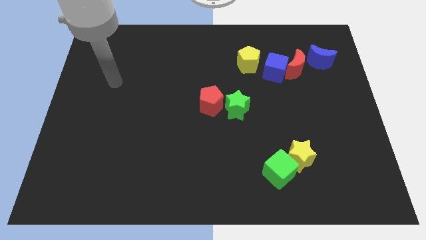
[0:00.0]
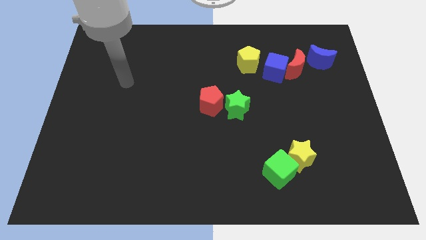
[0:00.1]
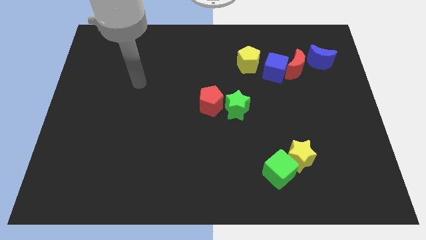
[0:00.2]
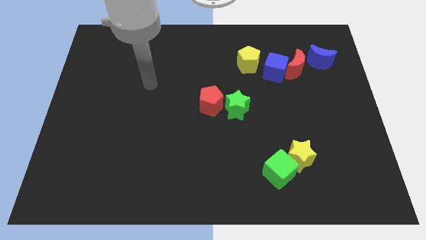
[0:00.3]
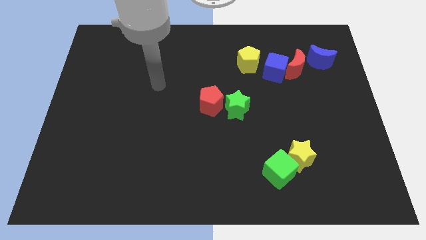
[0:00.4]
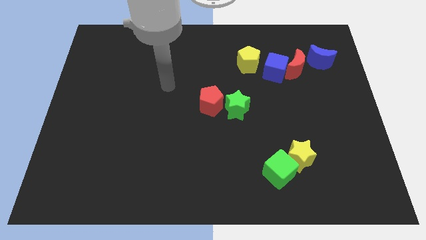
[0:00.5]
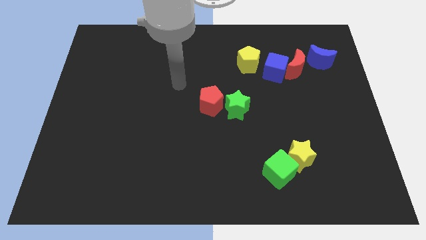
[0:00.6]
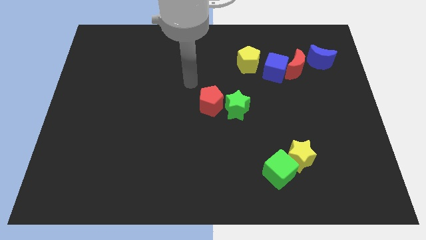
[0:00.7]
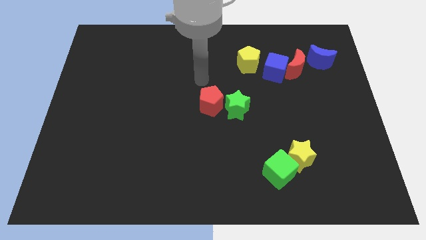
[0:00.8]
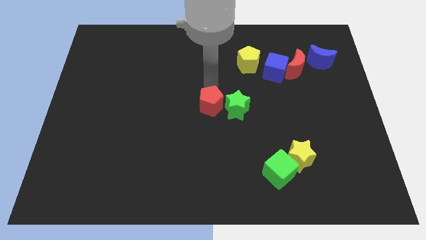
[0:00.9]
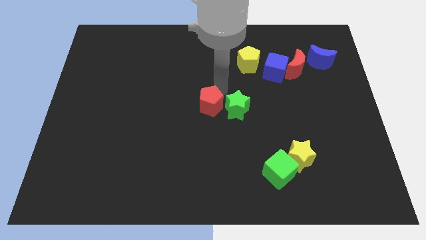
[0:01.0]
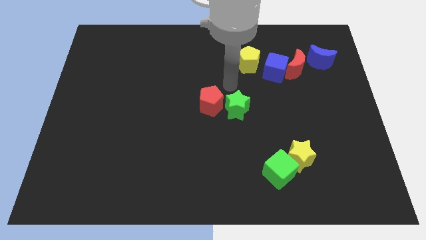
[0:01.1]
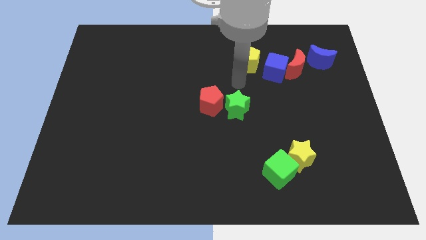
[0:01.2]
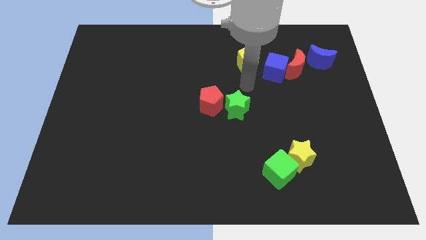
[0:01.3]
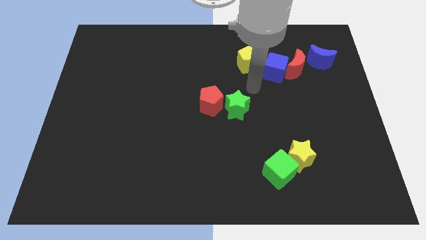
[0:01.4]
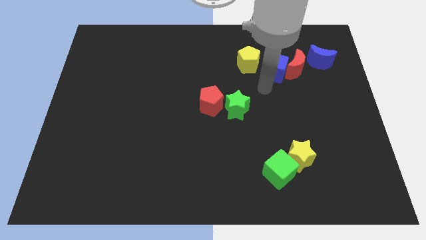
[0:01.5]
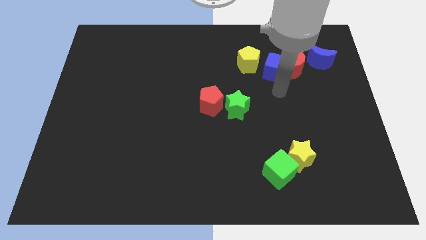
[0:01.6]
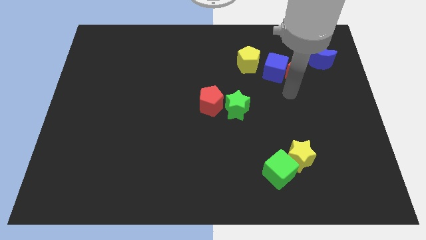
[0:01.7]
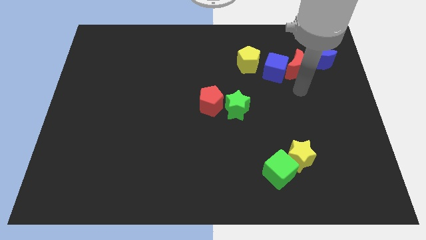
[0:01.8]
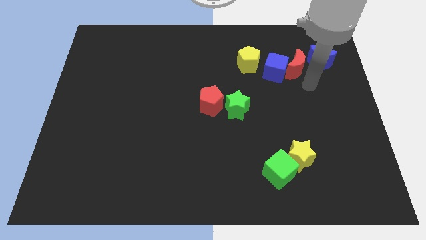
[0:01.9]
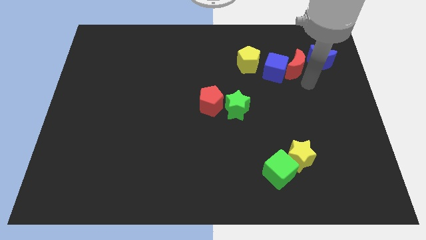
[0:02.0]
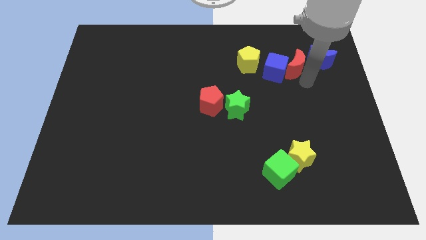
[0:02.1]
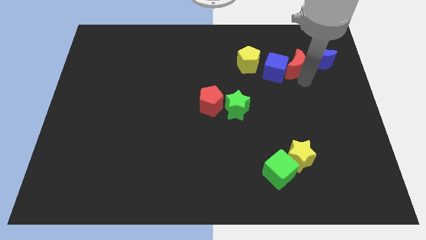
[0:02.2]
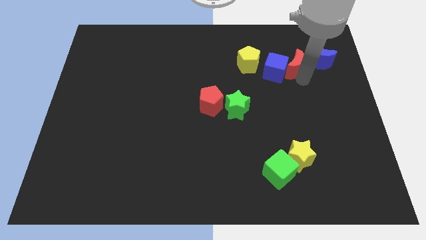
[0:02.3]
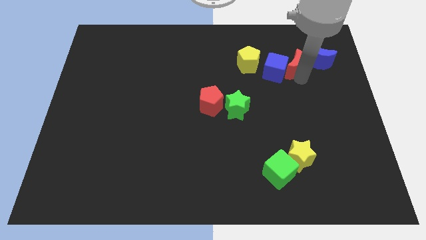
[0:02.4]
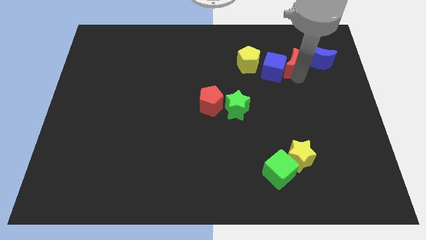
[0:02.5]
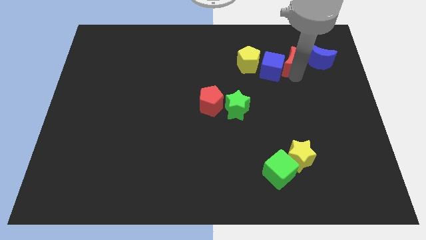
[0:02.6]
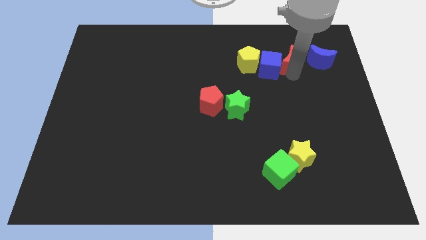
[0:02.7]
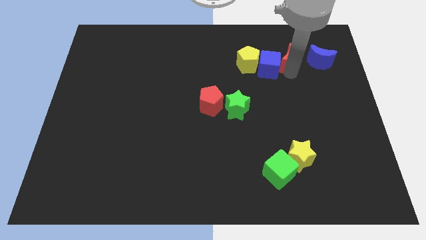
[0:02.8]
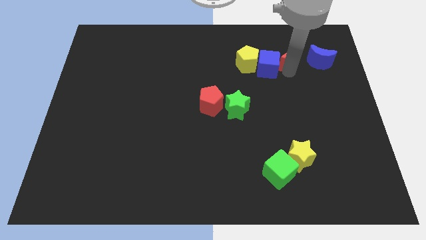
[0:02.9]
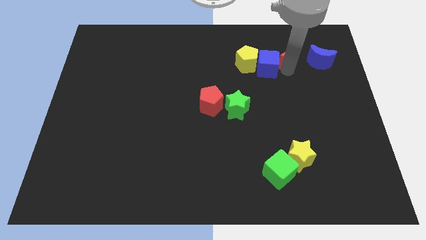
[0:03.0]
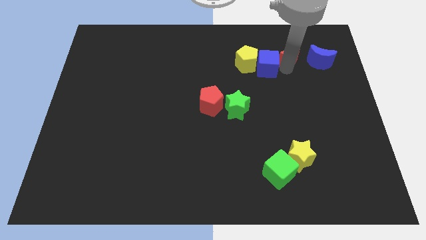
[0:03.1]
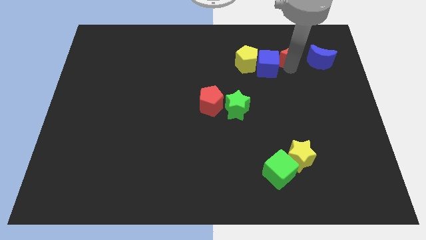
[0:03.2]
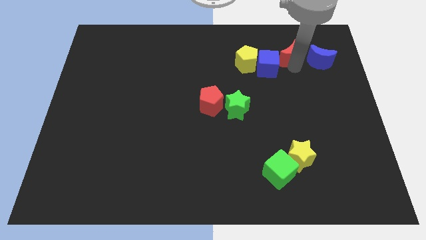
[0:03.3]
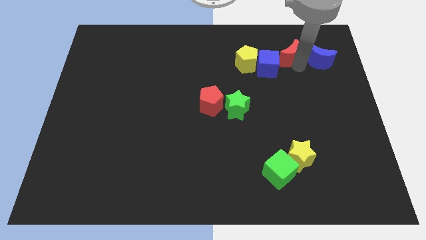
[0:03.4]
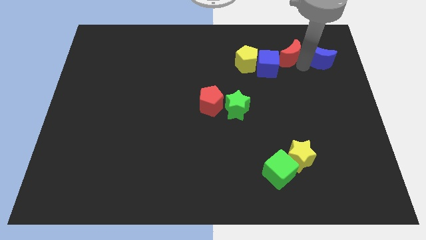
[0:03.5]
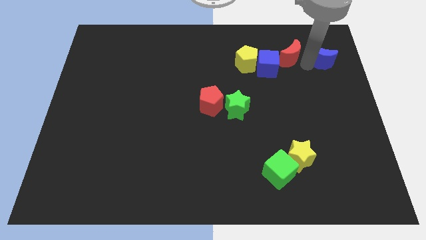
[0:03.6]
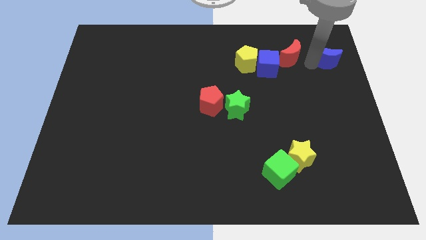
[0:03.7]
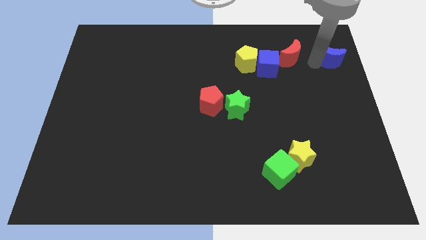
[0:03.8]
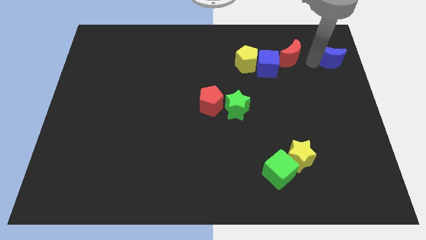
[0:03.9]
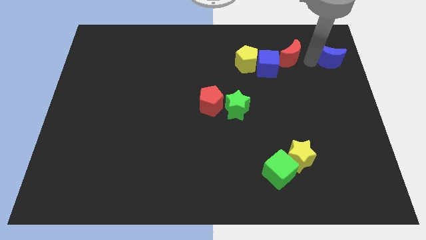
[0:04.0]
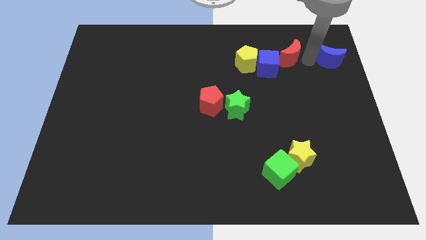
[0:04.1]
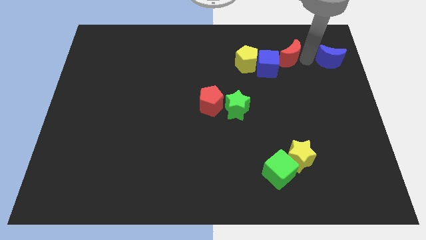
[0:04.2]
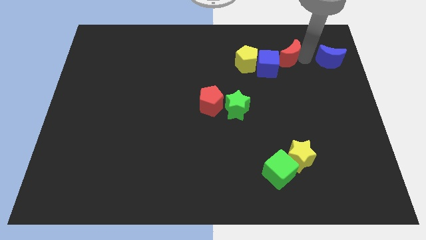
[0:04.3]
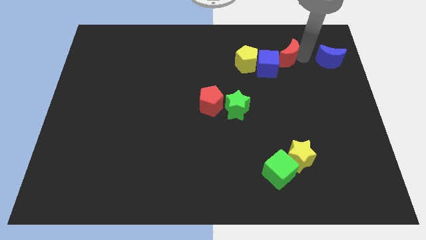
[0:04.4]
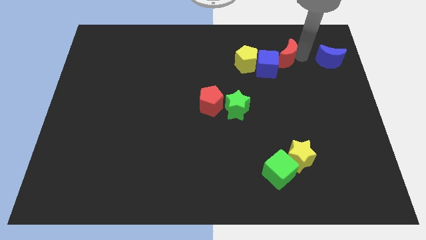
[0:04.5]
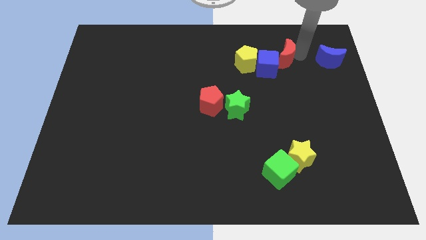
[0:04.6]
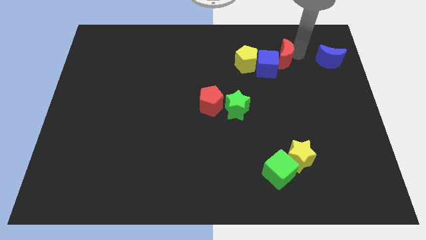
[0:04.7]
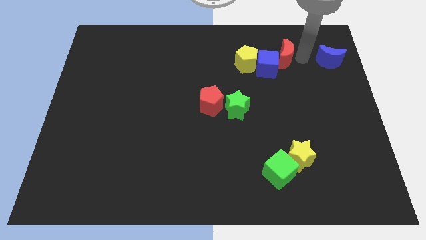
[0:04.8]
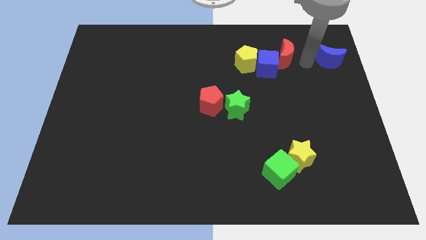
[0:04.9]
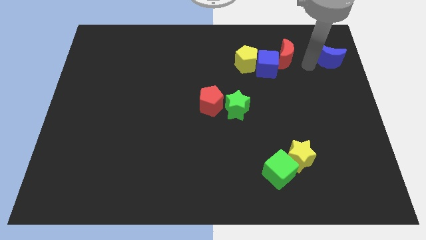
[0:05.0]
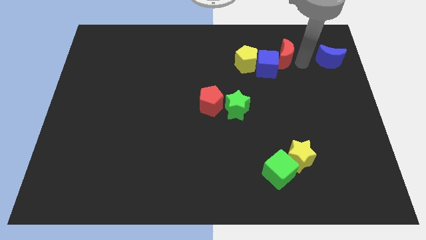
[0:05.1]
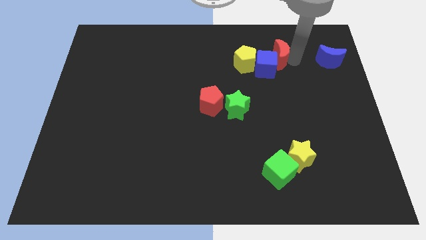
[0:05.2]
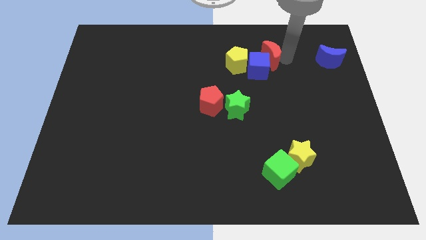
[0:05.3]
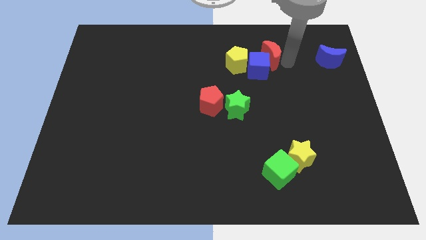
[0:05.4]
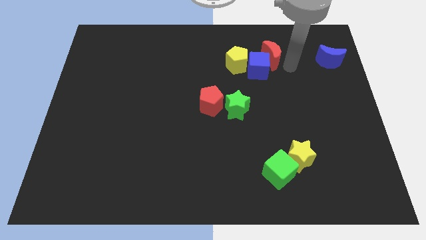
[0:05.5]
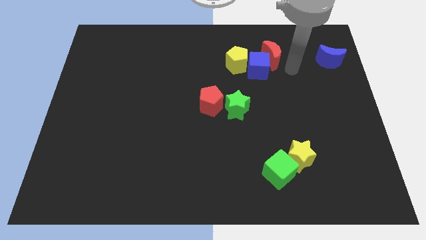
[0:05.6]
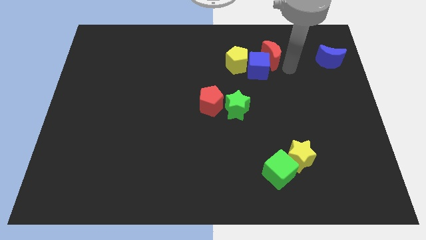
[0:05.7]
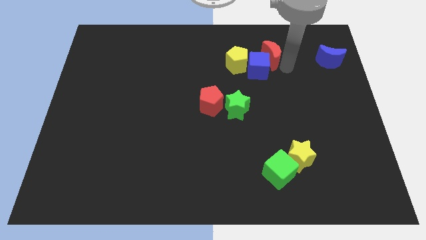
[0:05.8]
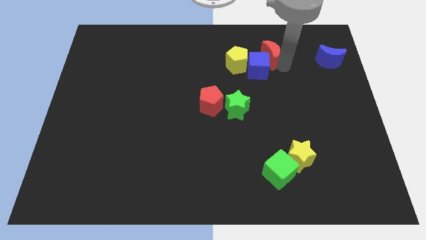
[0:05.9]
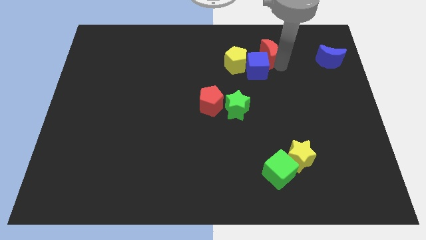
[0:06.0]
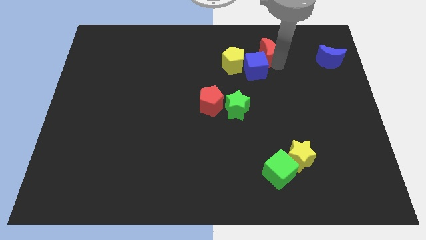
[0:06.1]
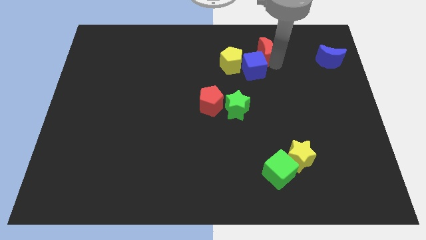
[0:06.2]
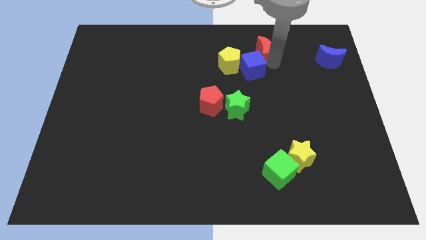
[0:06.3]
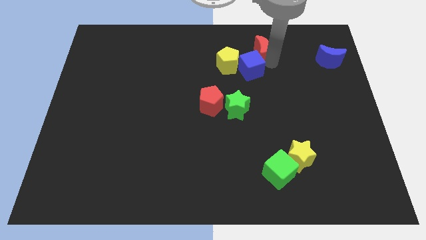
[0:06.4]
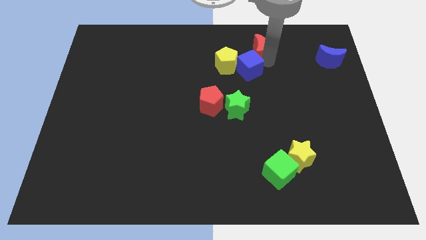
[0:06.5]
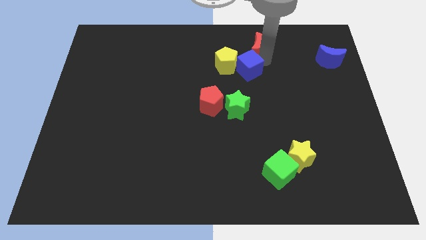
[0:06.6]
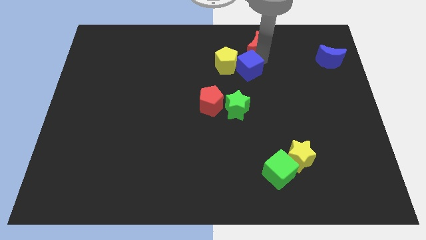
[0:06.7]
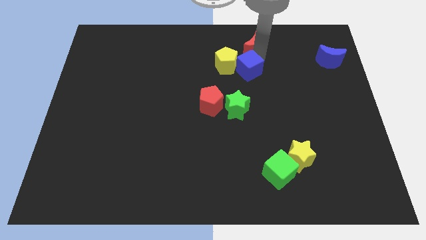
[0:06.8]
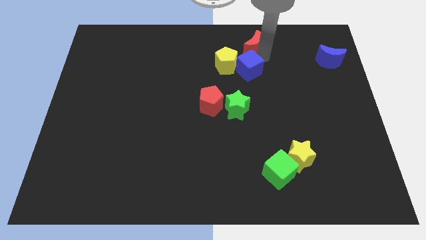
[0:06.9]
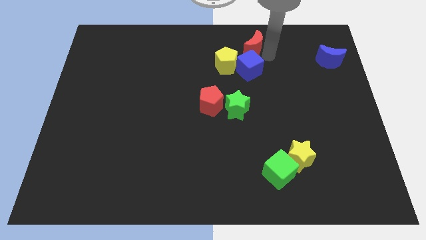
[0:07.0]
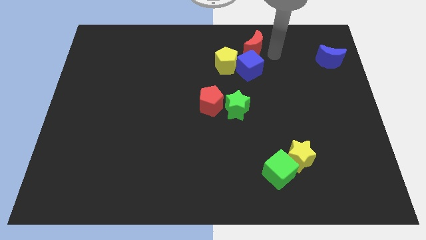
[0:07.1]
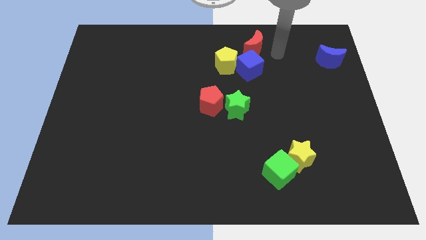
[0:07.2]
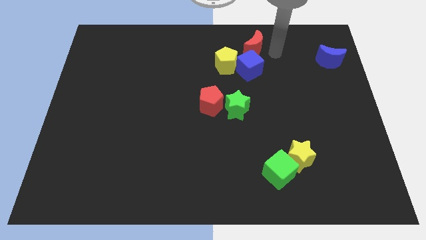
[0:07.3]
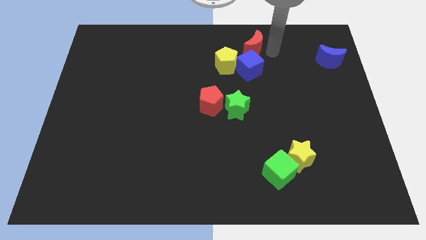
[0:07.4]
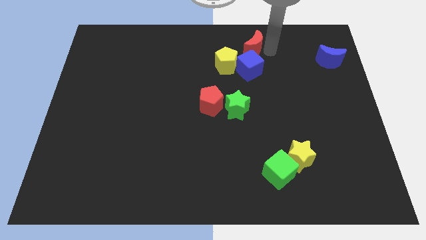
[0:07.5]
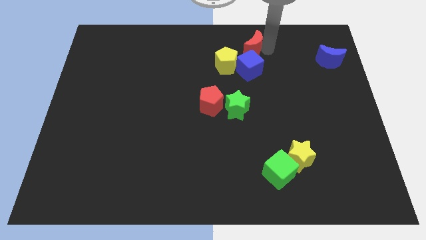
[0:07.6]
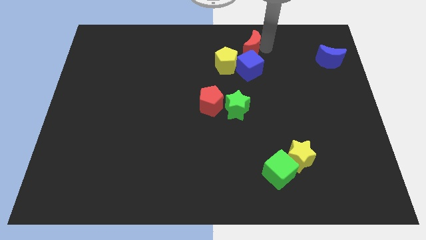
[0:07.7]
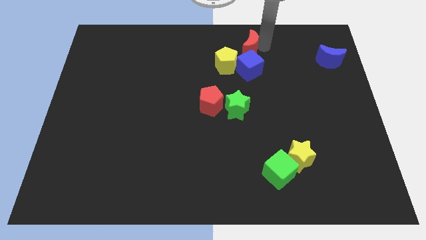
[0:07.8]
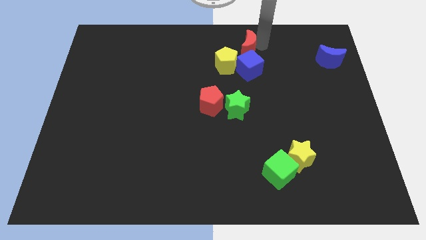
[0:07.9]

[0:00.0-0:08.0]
move the red moon to the top side
